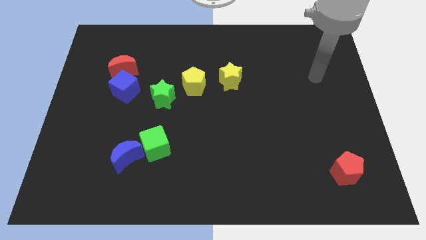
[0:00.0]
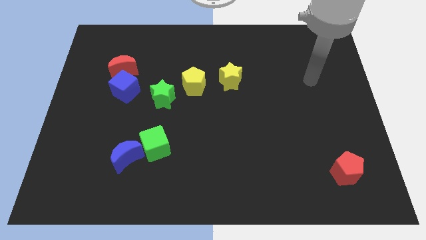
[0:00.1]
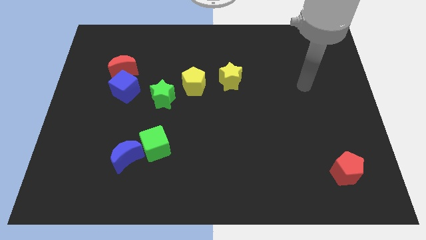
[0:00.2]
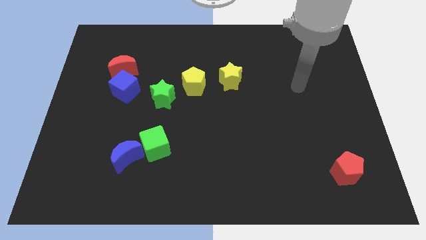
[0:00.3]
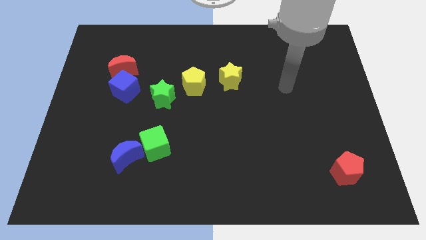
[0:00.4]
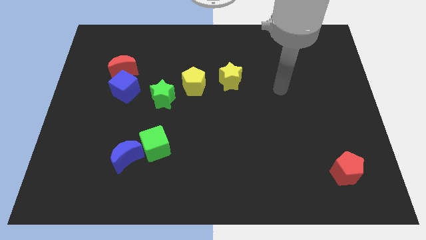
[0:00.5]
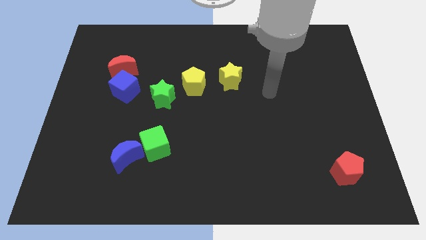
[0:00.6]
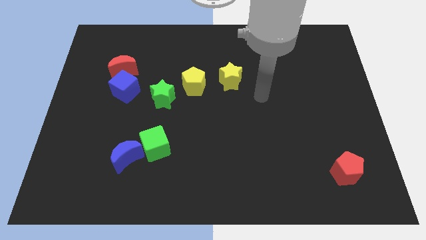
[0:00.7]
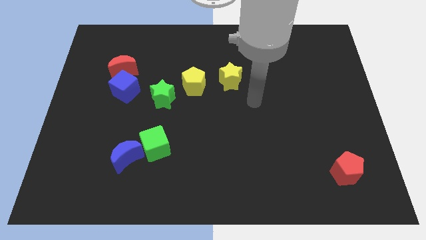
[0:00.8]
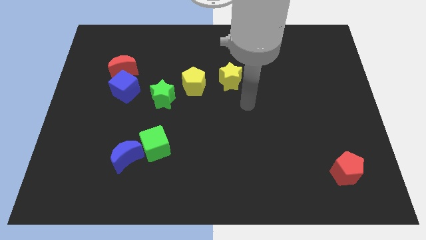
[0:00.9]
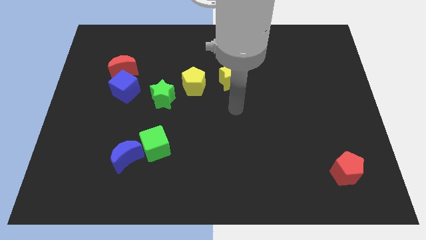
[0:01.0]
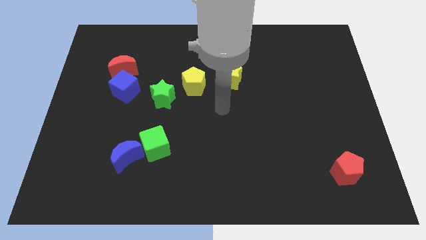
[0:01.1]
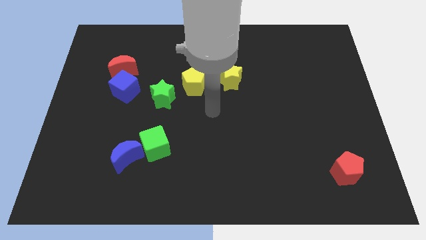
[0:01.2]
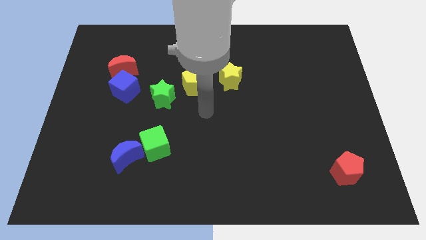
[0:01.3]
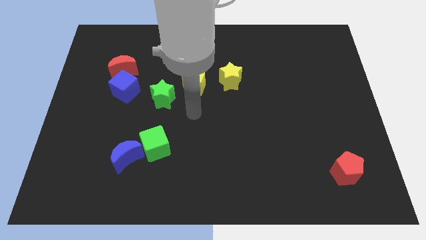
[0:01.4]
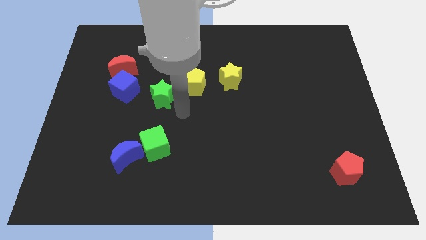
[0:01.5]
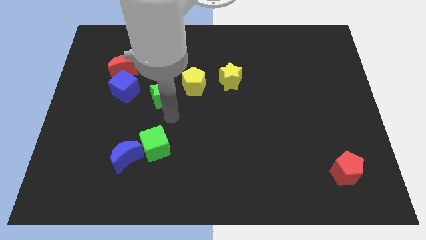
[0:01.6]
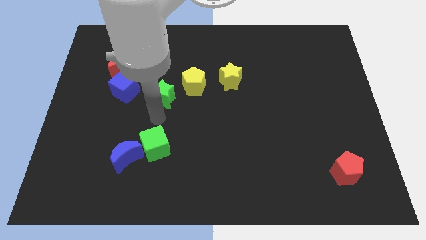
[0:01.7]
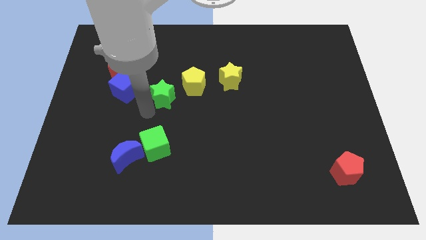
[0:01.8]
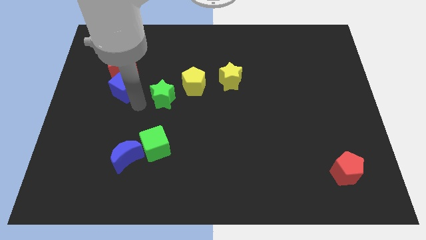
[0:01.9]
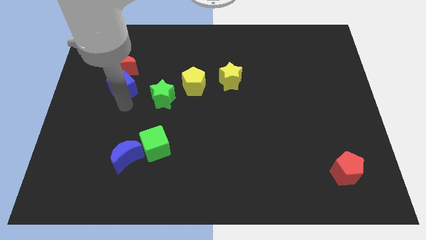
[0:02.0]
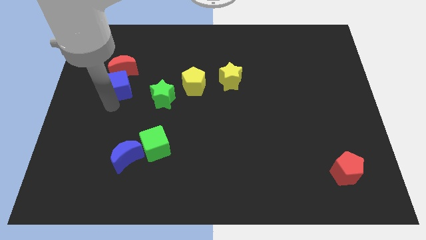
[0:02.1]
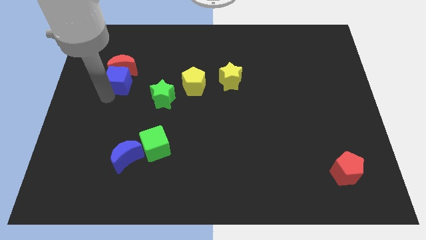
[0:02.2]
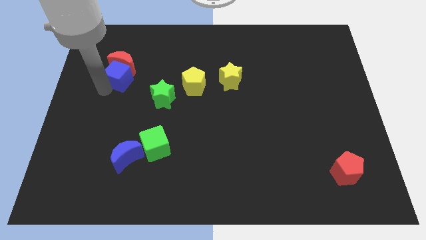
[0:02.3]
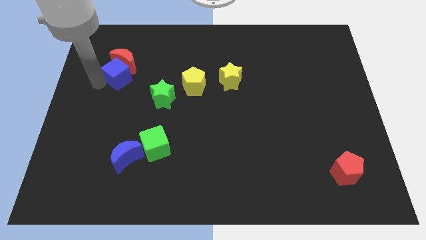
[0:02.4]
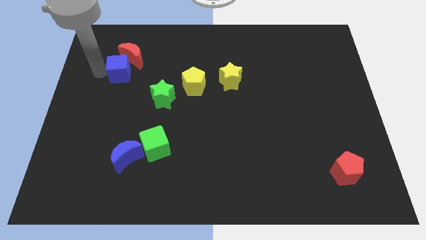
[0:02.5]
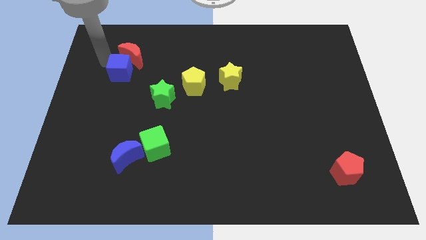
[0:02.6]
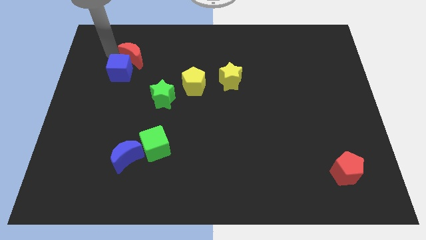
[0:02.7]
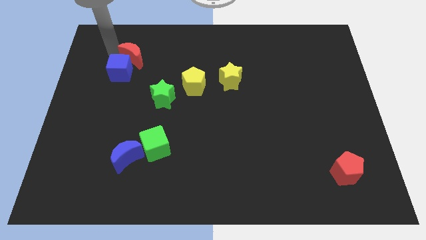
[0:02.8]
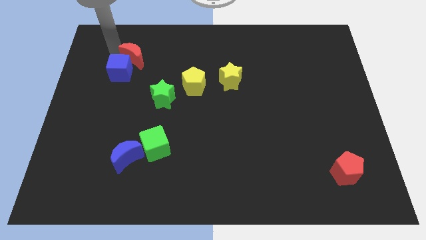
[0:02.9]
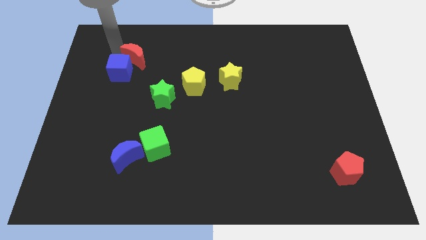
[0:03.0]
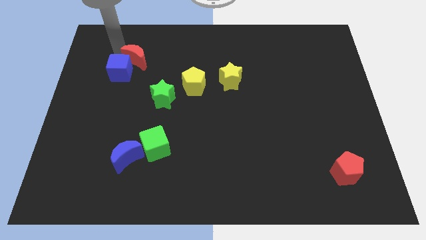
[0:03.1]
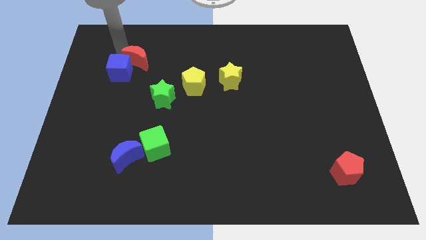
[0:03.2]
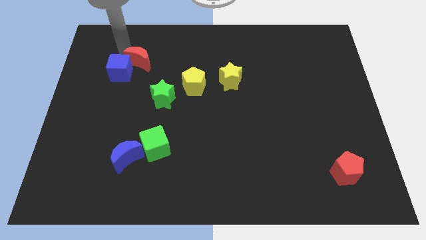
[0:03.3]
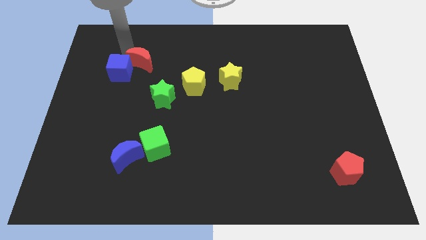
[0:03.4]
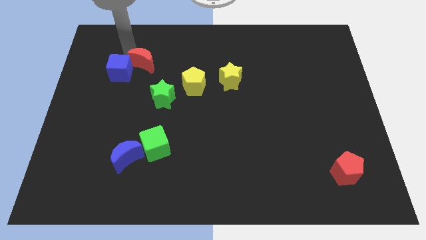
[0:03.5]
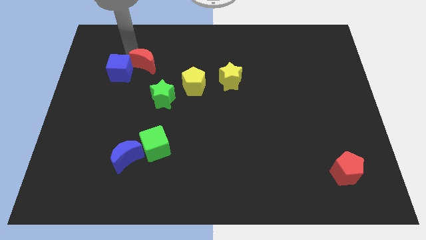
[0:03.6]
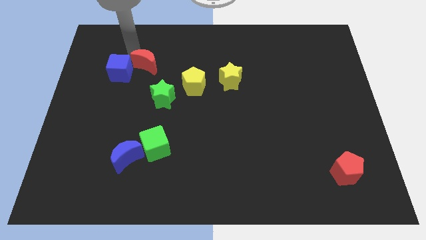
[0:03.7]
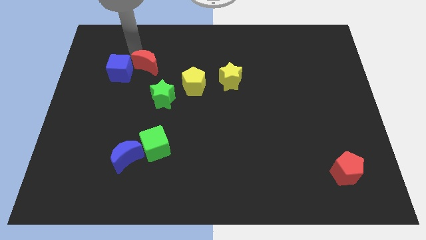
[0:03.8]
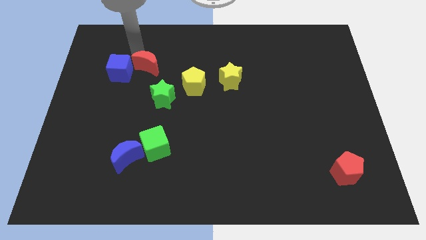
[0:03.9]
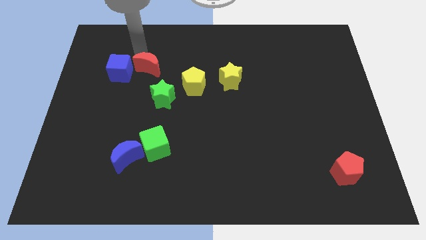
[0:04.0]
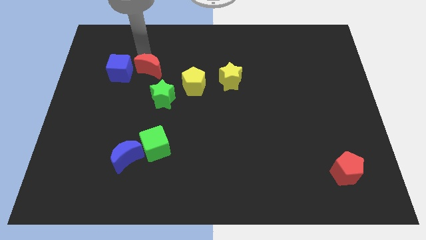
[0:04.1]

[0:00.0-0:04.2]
slightly push the red moon to the right

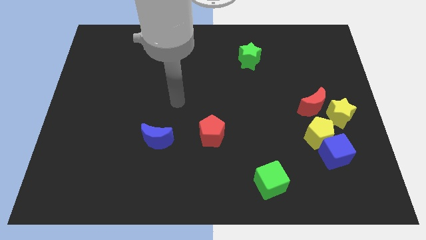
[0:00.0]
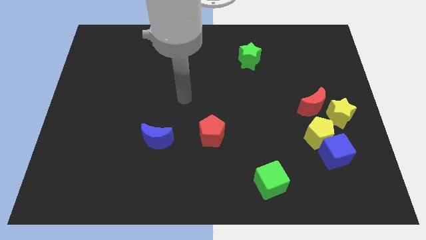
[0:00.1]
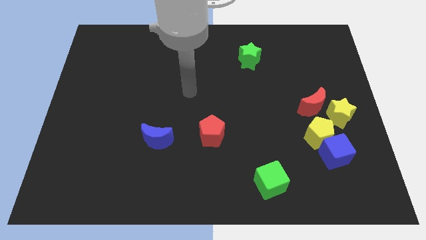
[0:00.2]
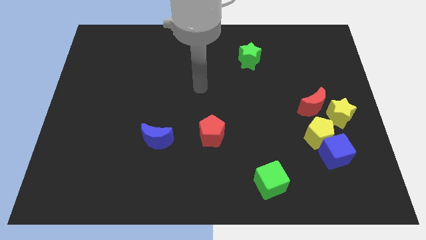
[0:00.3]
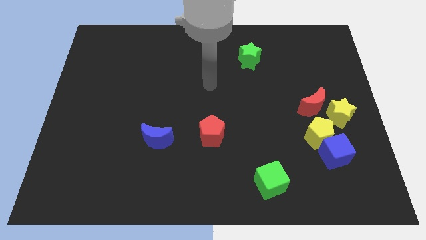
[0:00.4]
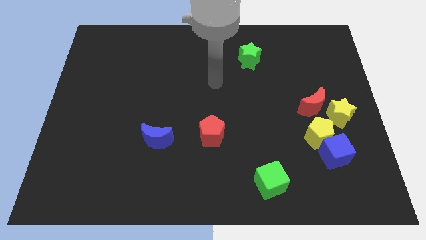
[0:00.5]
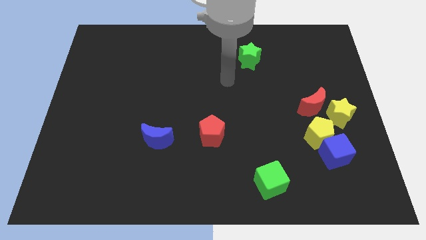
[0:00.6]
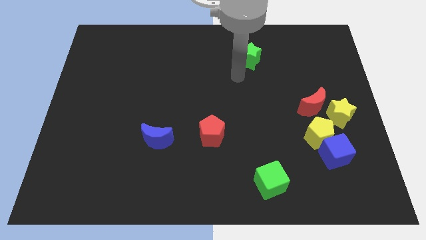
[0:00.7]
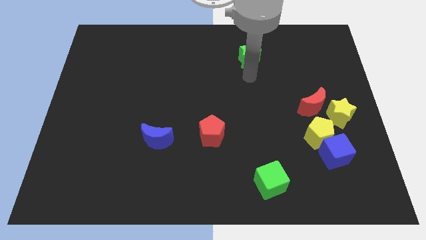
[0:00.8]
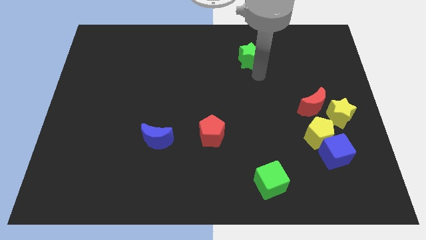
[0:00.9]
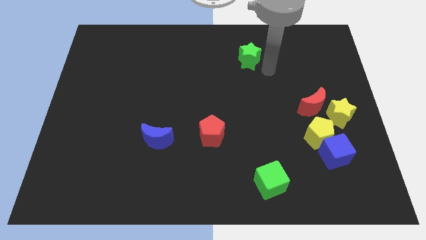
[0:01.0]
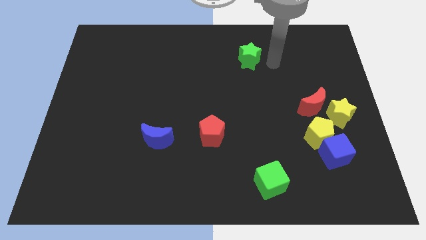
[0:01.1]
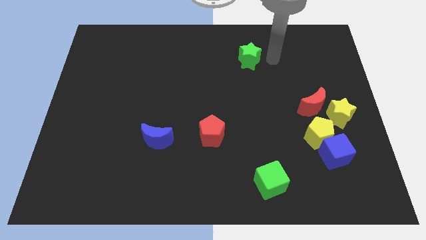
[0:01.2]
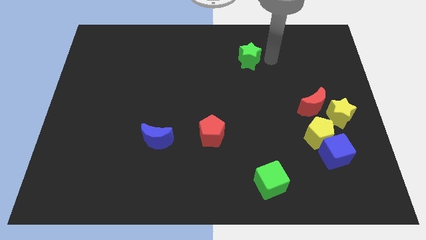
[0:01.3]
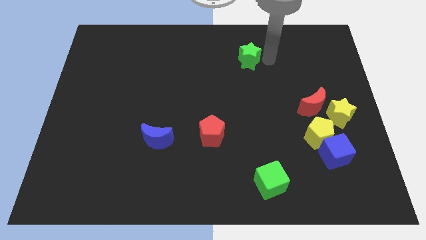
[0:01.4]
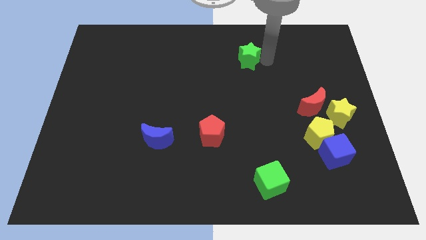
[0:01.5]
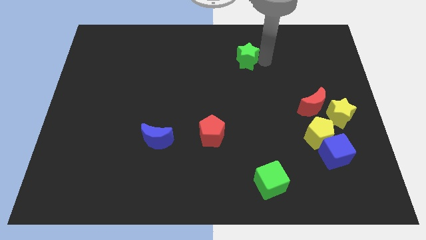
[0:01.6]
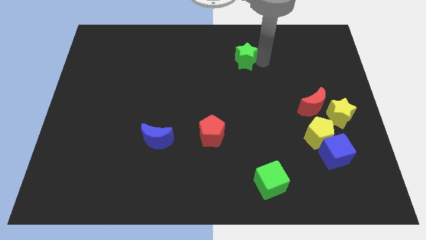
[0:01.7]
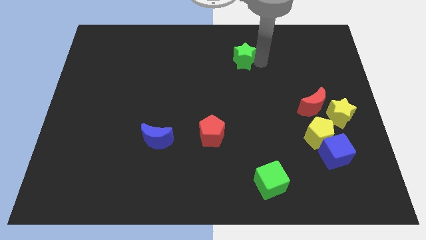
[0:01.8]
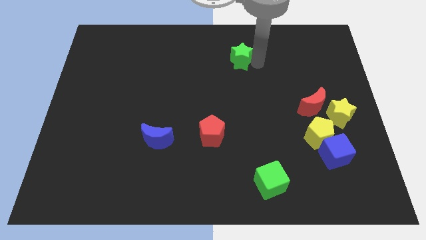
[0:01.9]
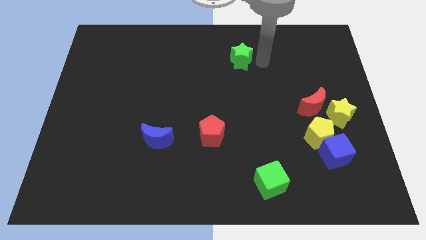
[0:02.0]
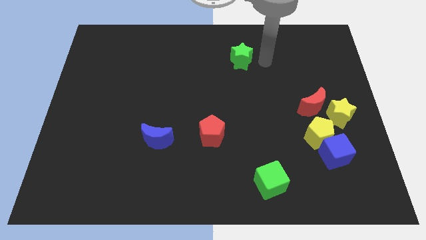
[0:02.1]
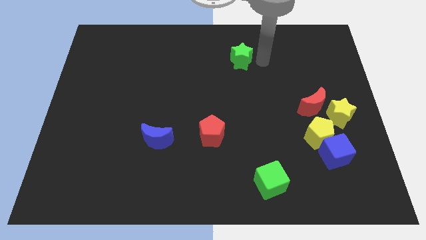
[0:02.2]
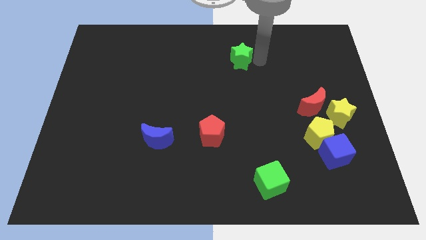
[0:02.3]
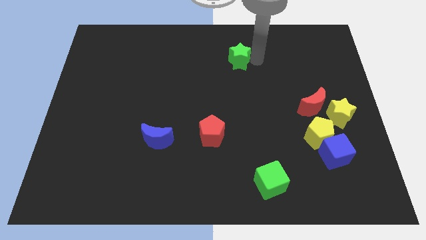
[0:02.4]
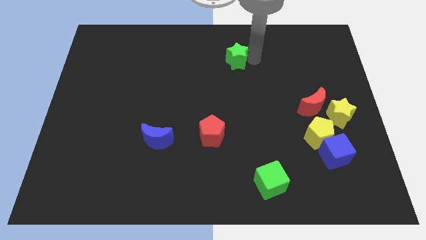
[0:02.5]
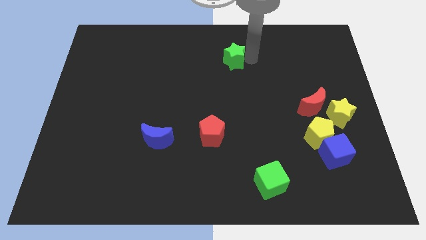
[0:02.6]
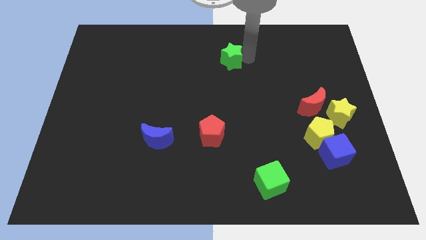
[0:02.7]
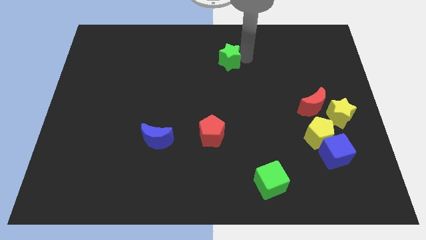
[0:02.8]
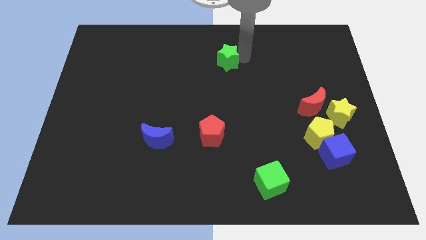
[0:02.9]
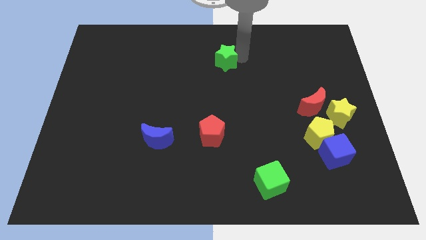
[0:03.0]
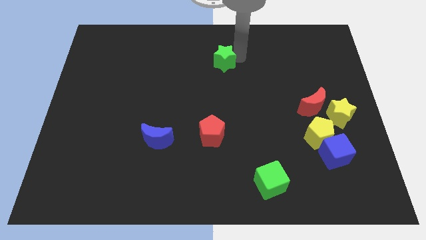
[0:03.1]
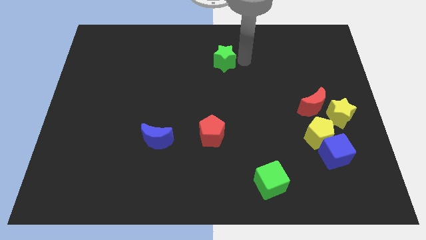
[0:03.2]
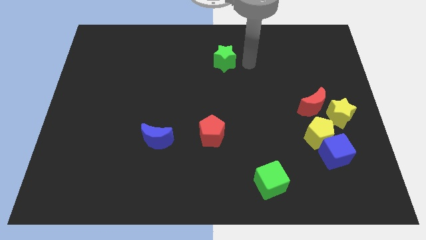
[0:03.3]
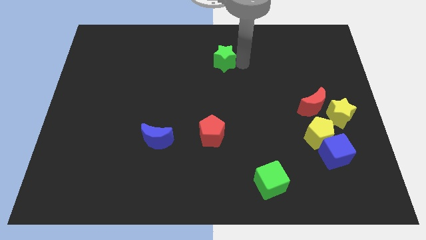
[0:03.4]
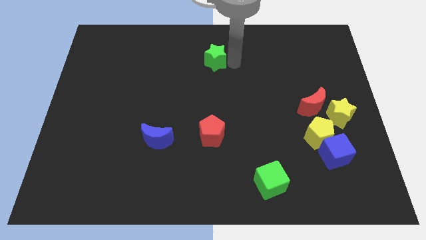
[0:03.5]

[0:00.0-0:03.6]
slightly slide the green star to the left

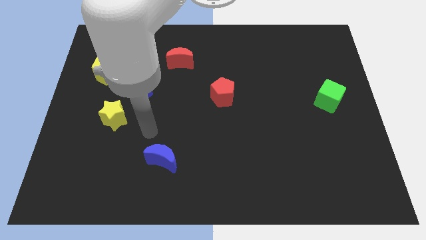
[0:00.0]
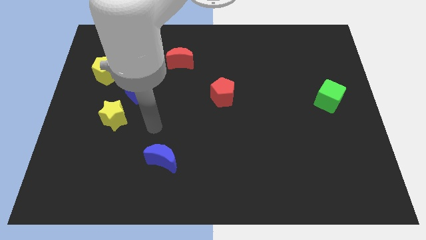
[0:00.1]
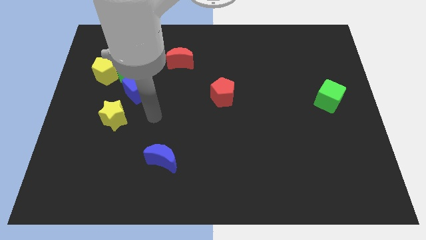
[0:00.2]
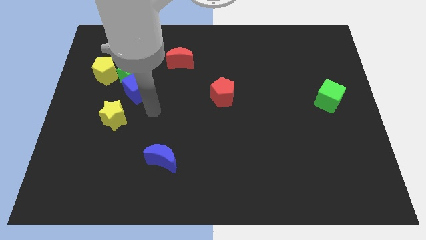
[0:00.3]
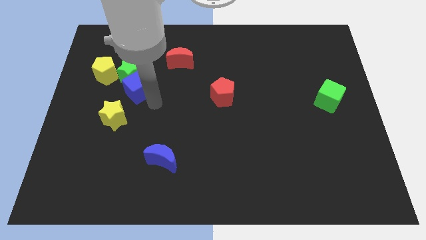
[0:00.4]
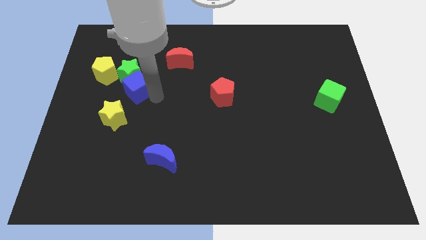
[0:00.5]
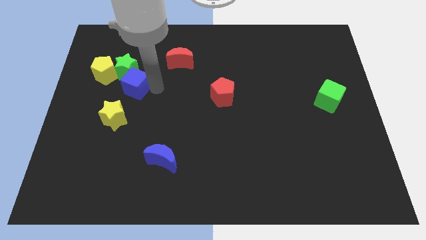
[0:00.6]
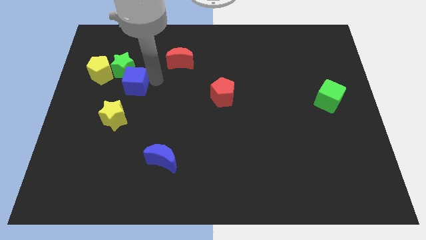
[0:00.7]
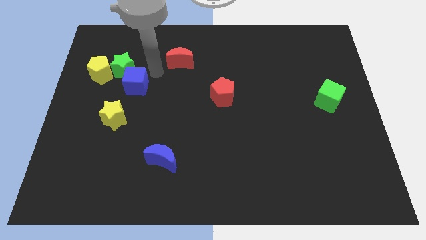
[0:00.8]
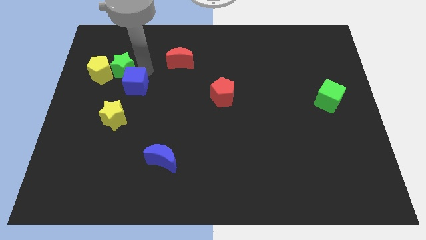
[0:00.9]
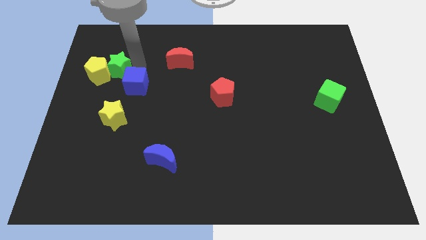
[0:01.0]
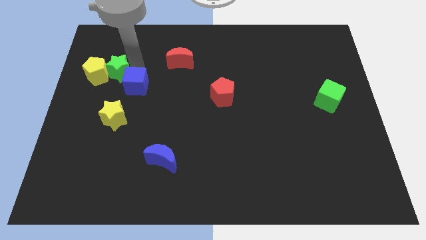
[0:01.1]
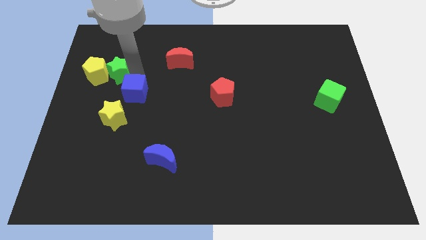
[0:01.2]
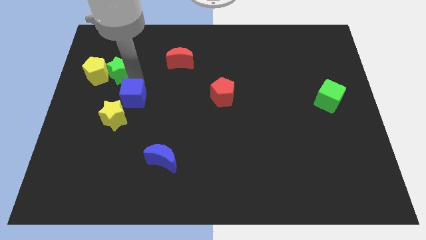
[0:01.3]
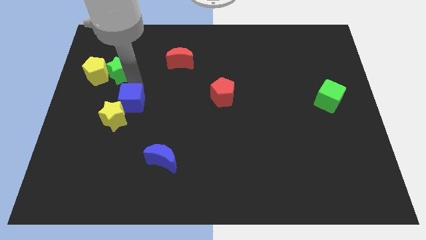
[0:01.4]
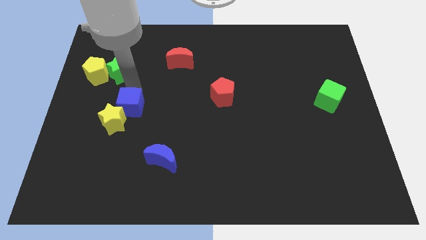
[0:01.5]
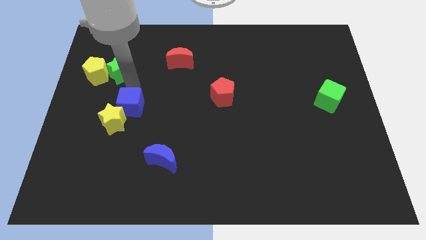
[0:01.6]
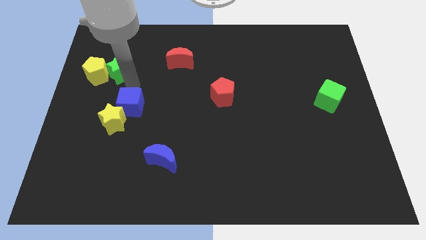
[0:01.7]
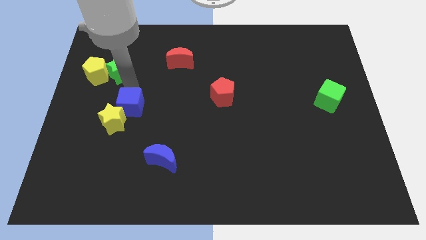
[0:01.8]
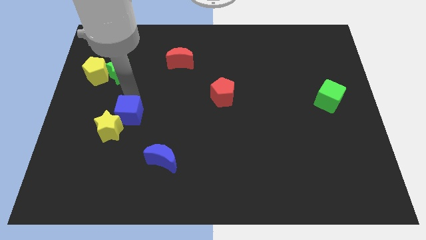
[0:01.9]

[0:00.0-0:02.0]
push the blue cube down slightly
